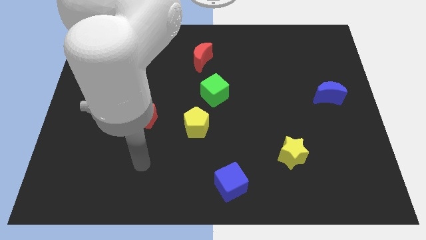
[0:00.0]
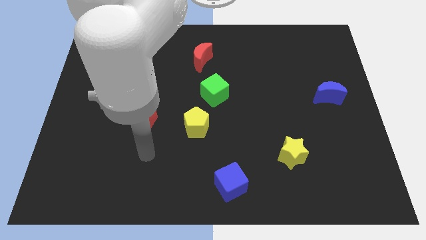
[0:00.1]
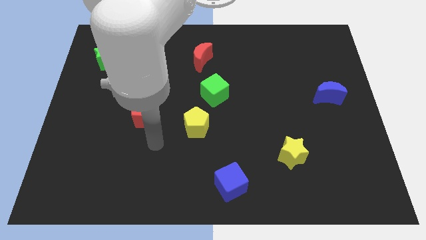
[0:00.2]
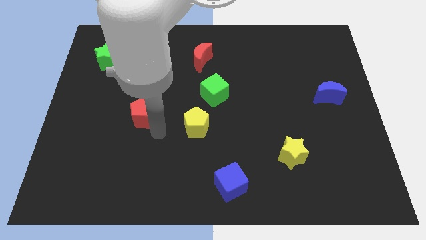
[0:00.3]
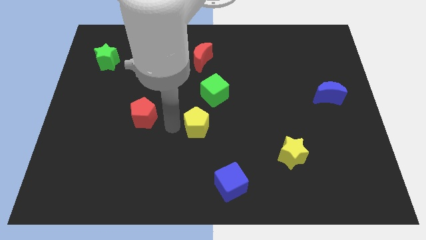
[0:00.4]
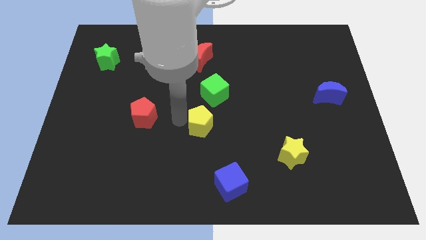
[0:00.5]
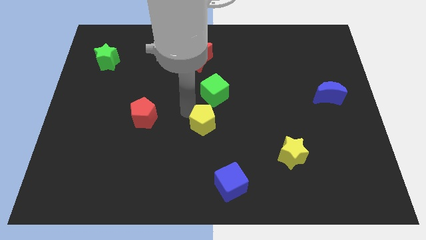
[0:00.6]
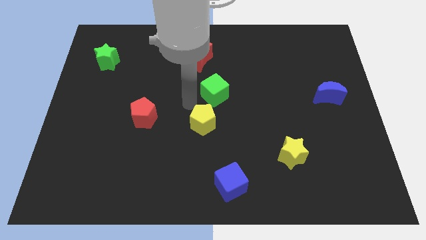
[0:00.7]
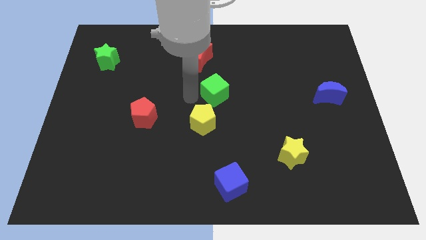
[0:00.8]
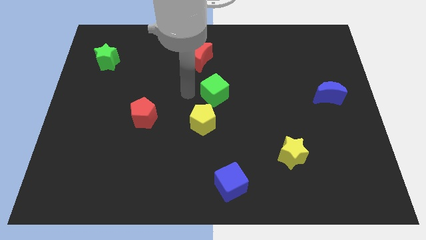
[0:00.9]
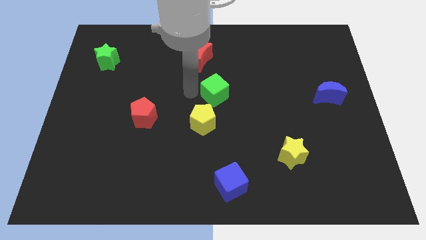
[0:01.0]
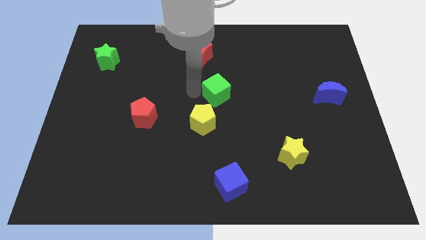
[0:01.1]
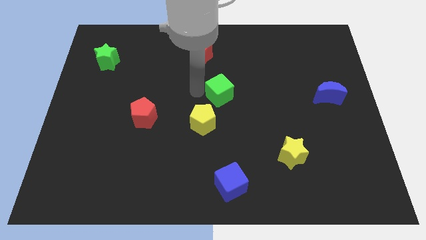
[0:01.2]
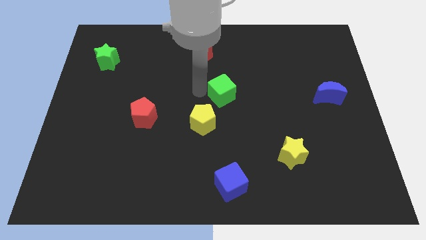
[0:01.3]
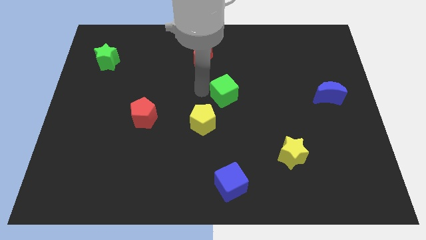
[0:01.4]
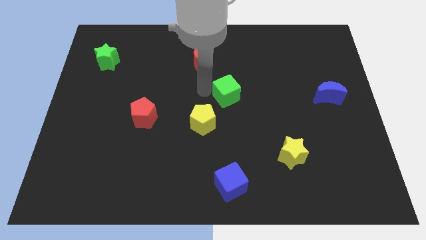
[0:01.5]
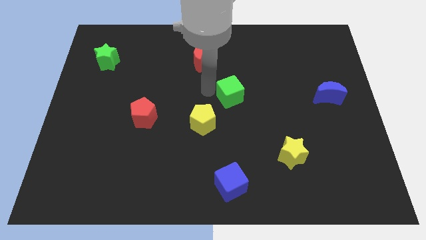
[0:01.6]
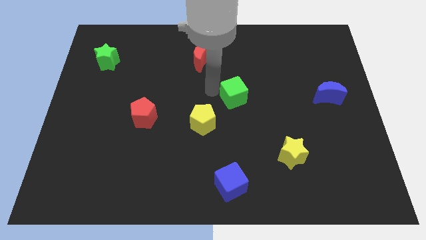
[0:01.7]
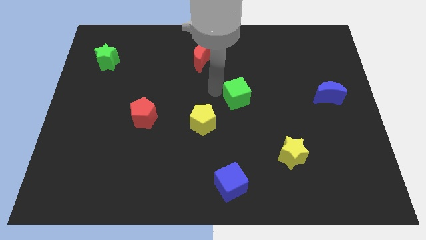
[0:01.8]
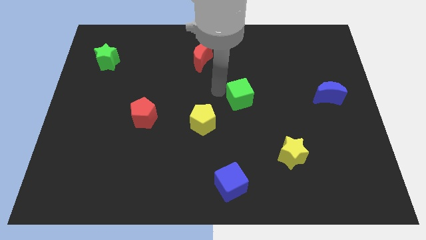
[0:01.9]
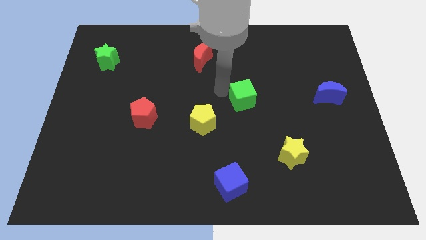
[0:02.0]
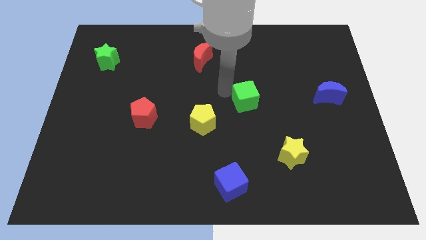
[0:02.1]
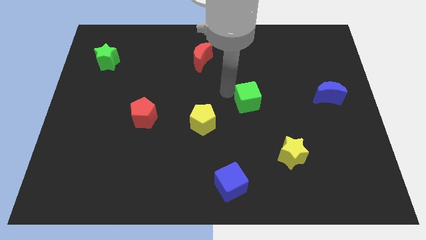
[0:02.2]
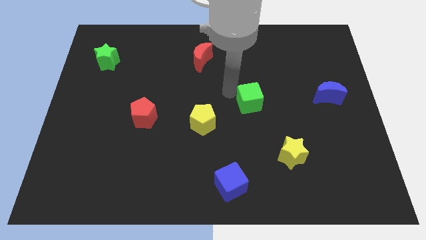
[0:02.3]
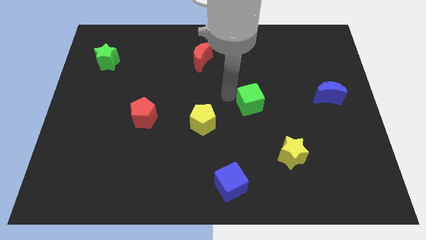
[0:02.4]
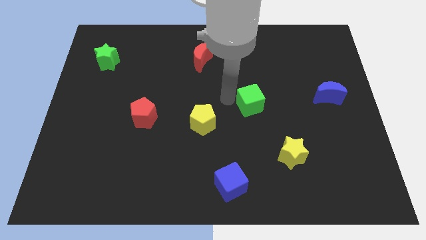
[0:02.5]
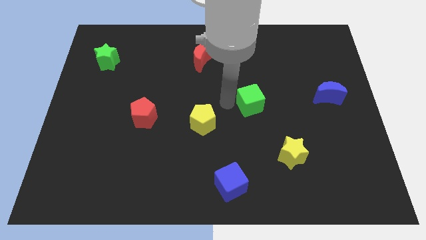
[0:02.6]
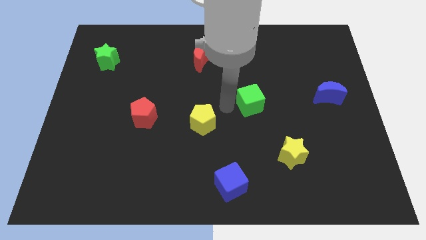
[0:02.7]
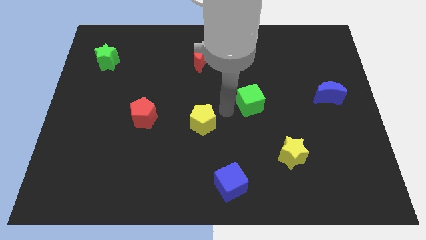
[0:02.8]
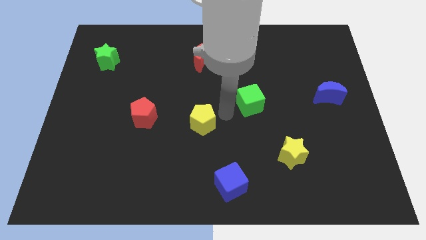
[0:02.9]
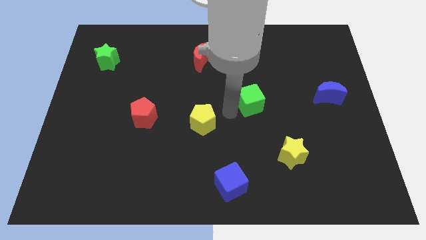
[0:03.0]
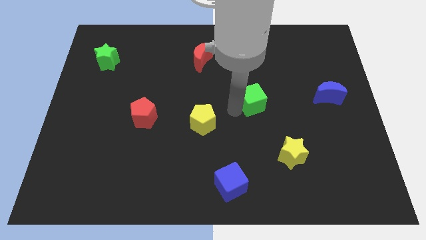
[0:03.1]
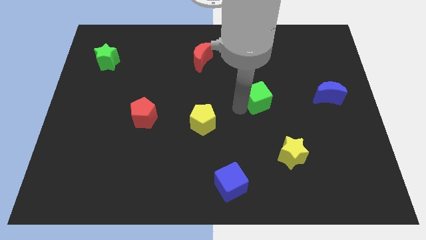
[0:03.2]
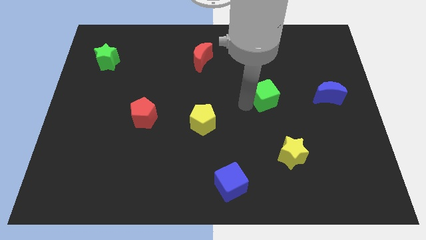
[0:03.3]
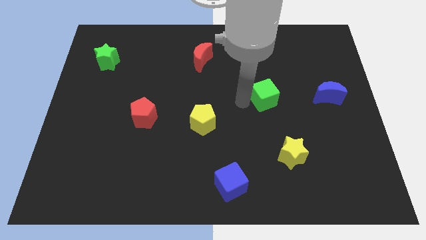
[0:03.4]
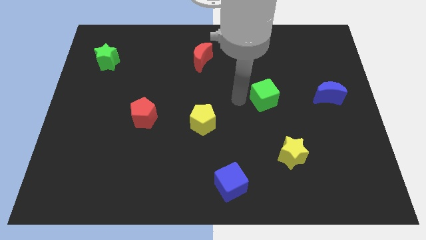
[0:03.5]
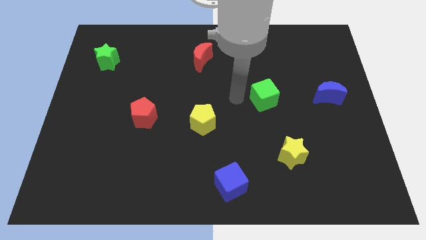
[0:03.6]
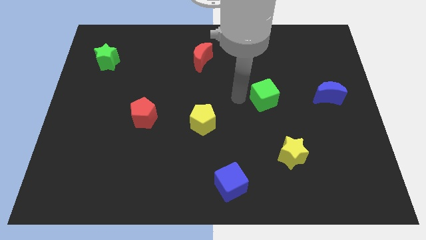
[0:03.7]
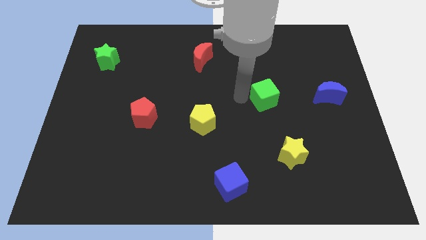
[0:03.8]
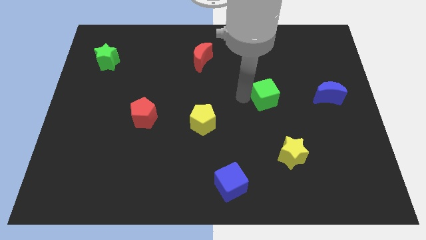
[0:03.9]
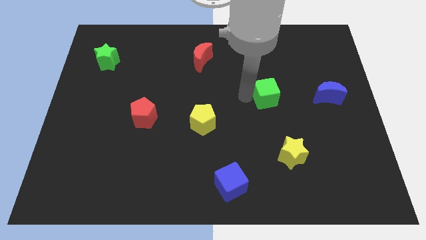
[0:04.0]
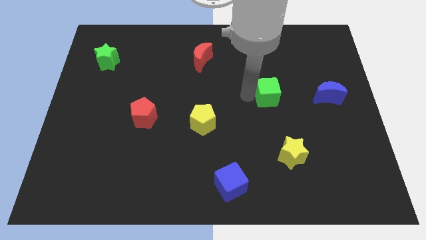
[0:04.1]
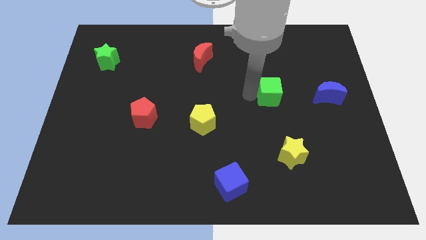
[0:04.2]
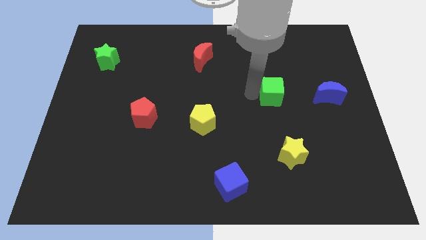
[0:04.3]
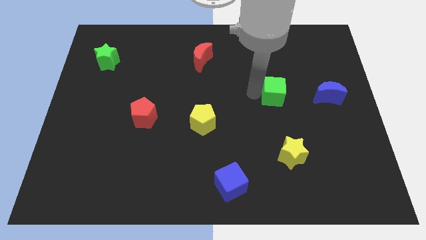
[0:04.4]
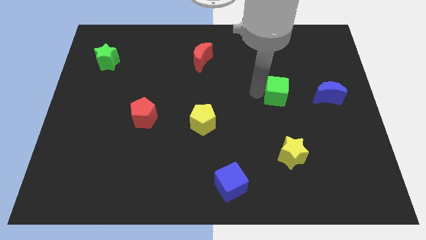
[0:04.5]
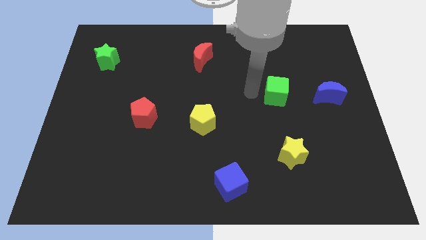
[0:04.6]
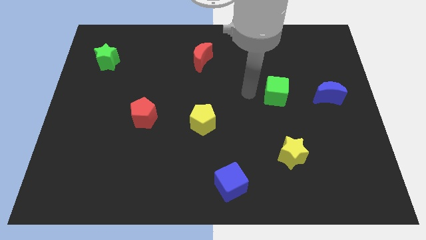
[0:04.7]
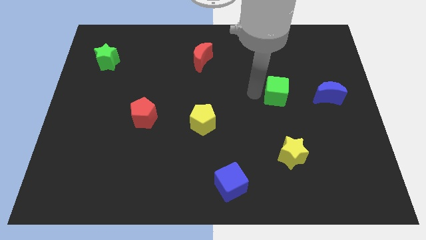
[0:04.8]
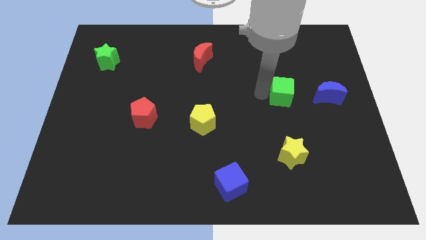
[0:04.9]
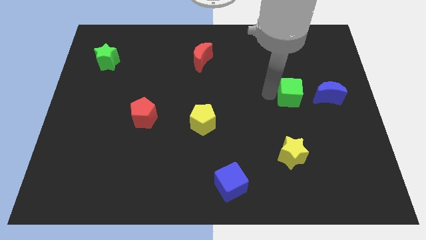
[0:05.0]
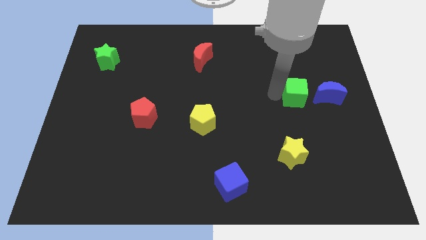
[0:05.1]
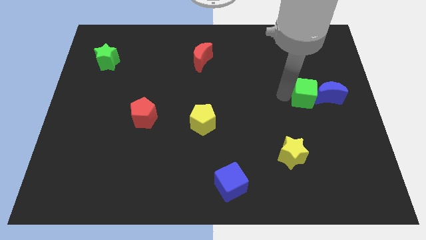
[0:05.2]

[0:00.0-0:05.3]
slide the green cube close to the blue moon

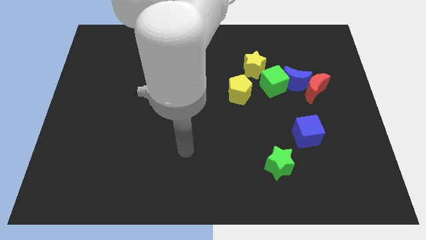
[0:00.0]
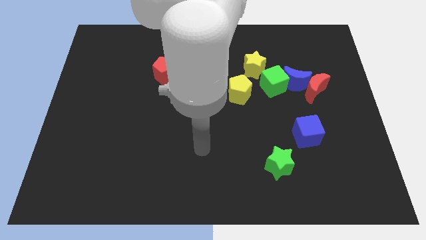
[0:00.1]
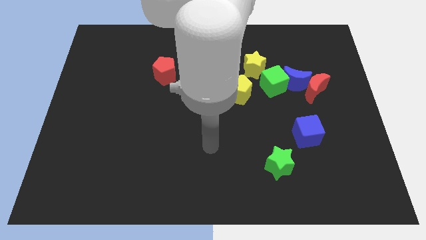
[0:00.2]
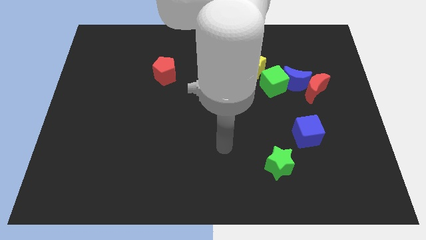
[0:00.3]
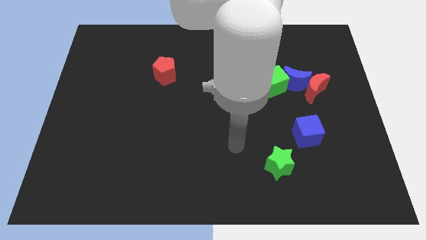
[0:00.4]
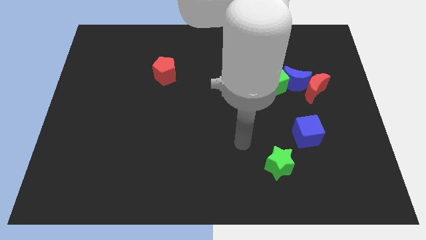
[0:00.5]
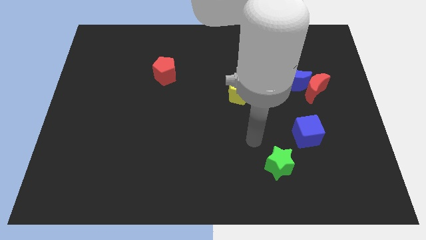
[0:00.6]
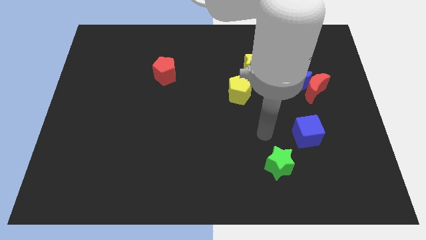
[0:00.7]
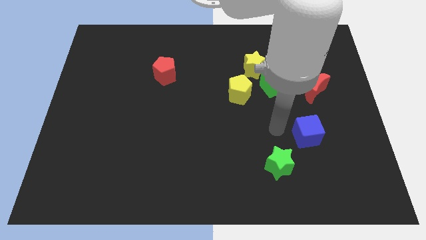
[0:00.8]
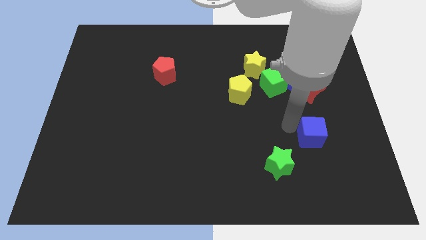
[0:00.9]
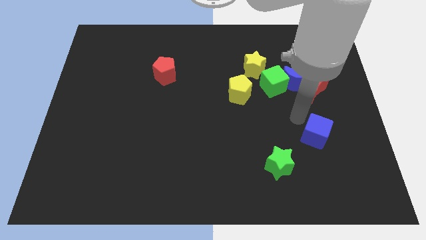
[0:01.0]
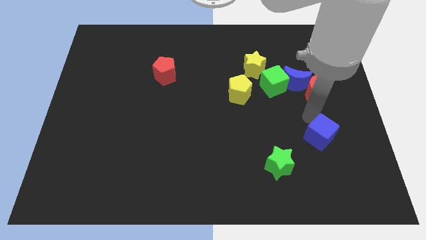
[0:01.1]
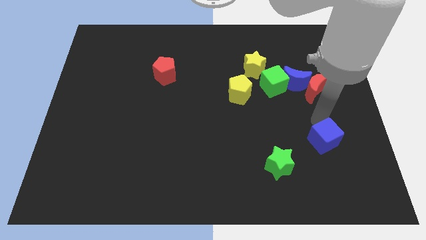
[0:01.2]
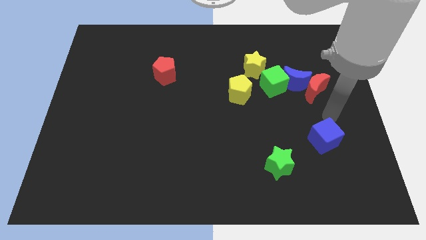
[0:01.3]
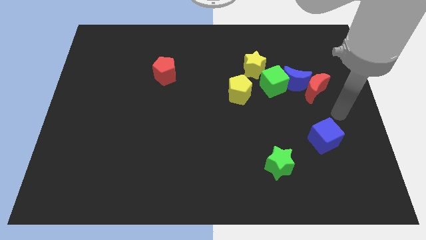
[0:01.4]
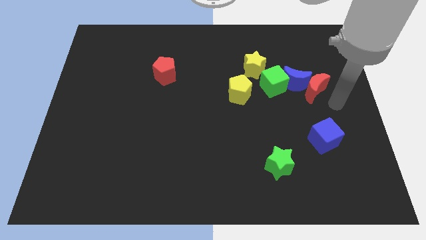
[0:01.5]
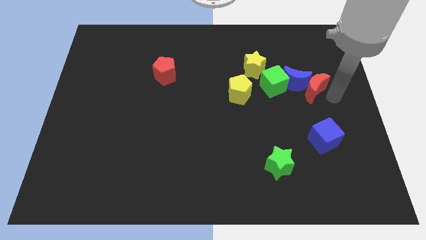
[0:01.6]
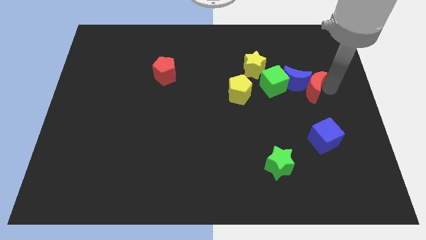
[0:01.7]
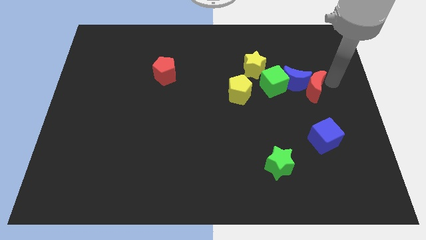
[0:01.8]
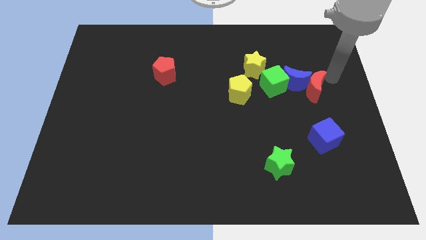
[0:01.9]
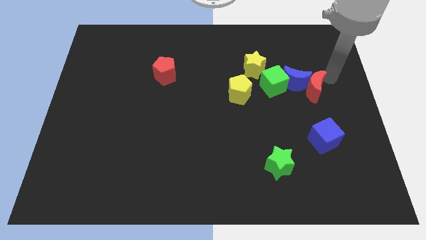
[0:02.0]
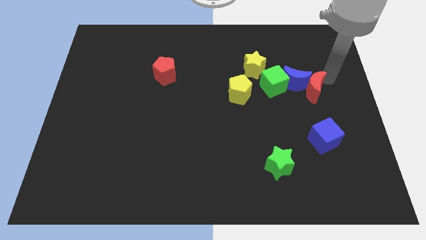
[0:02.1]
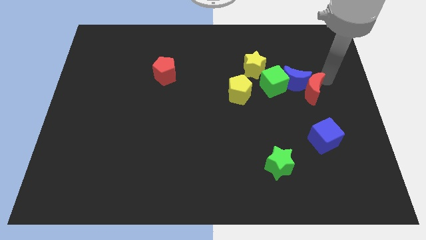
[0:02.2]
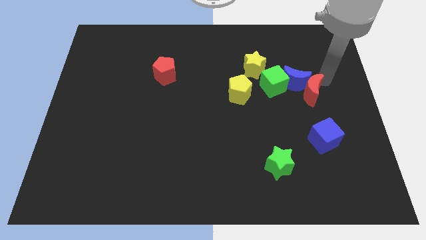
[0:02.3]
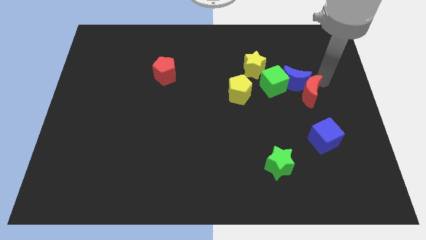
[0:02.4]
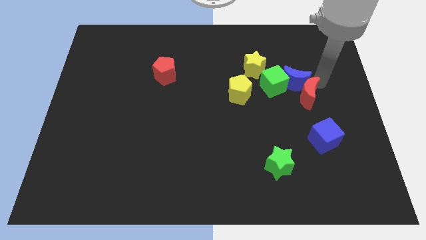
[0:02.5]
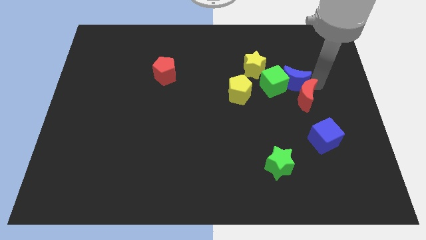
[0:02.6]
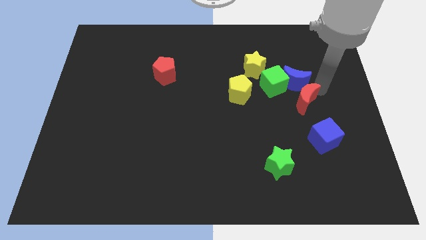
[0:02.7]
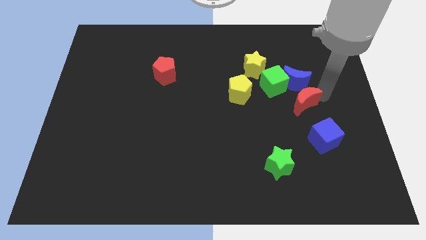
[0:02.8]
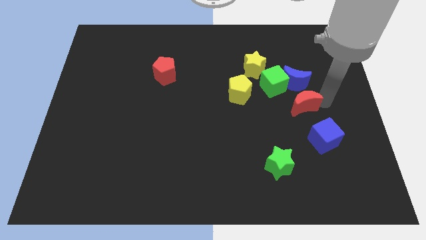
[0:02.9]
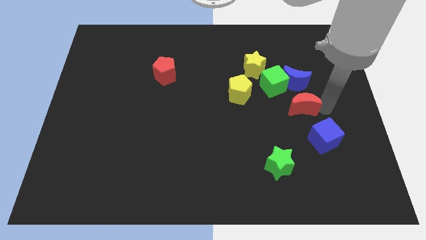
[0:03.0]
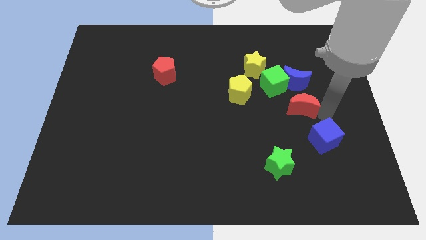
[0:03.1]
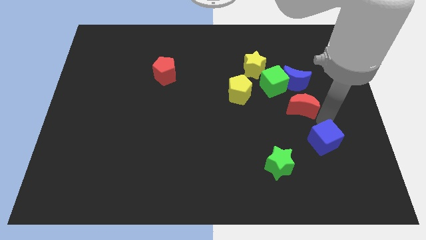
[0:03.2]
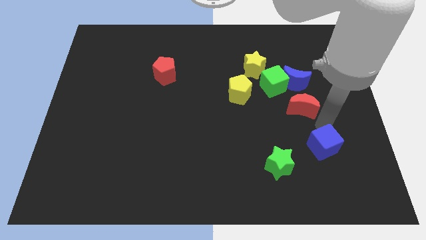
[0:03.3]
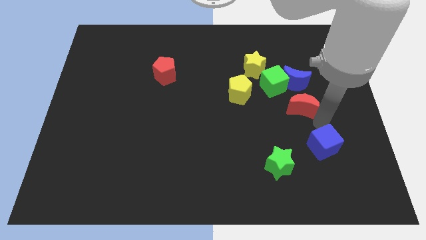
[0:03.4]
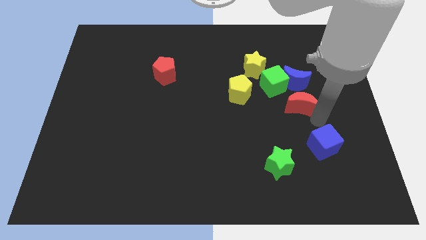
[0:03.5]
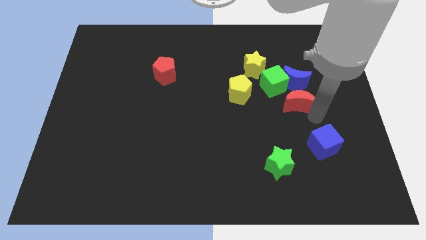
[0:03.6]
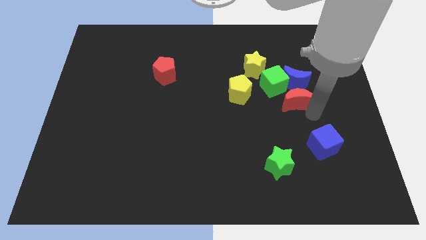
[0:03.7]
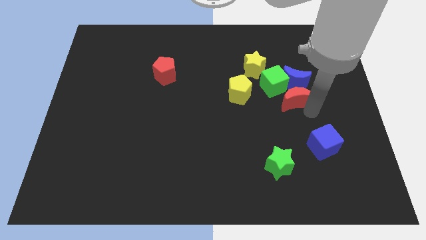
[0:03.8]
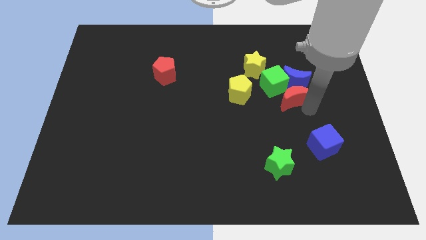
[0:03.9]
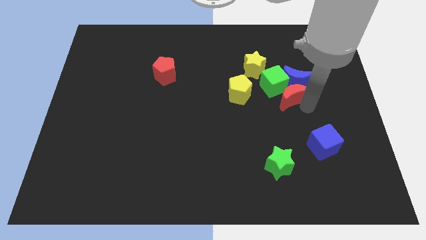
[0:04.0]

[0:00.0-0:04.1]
move the red moon next to the green cube
